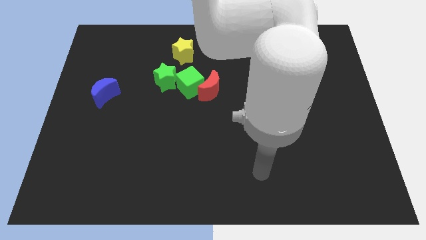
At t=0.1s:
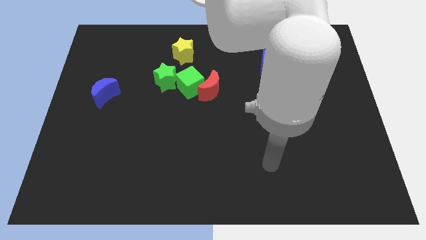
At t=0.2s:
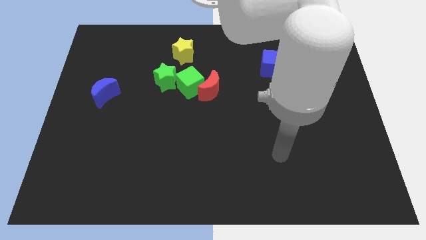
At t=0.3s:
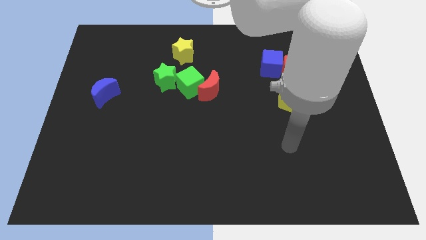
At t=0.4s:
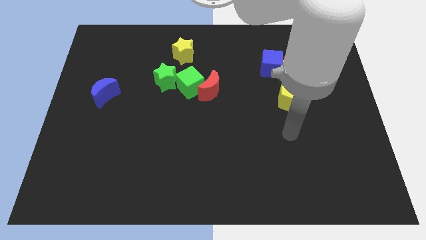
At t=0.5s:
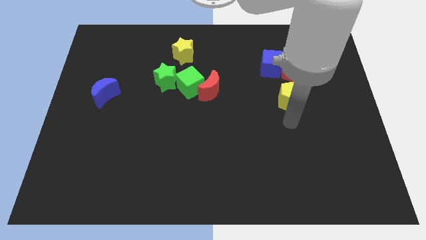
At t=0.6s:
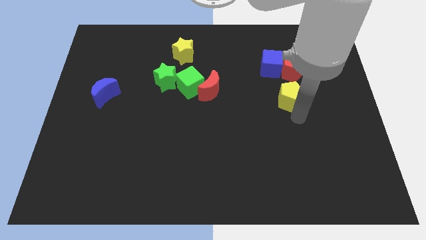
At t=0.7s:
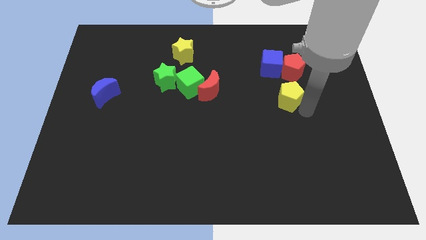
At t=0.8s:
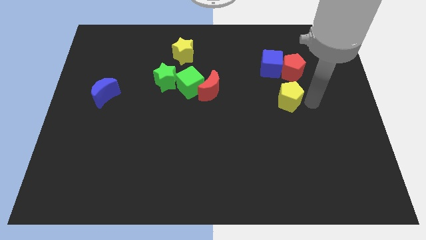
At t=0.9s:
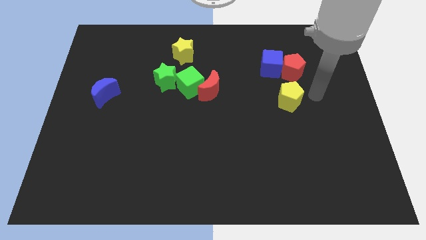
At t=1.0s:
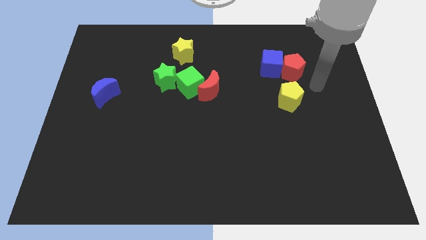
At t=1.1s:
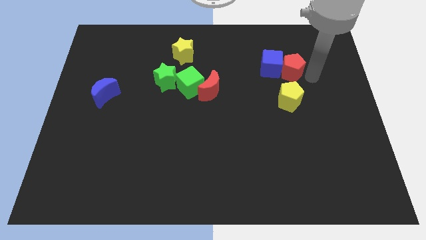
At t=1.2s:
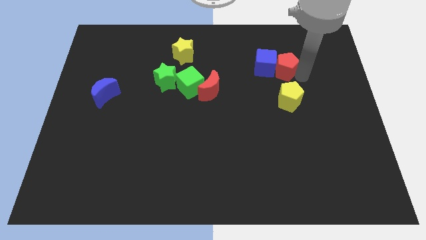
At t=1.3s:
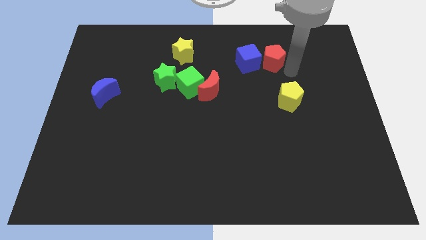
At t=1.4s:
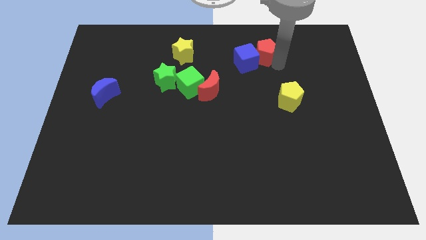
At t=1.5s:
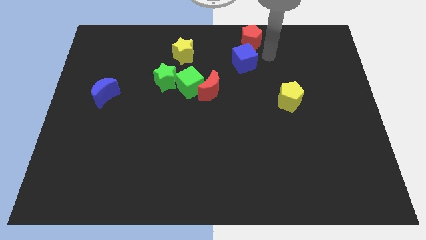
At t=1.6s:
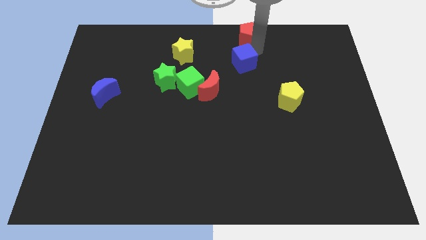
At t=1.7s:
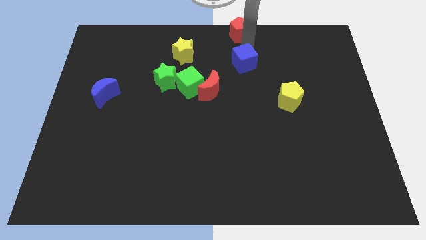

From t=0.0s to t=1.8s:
separate the blue cube from the red pentagon

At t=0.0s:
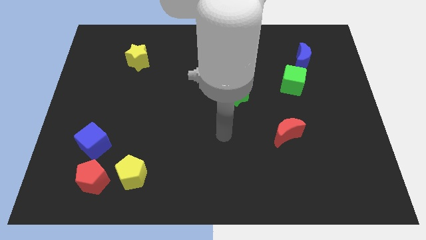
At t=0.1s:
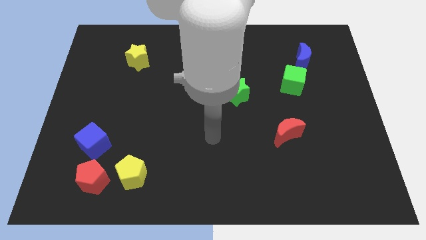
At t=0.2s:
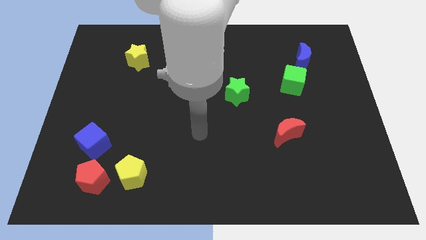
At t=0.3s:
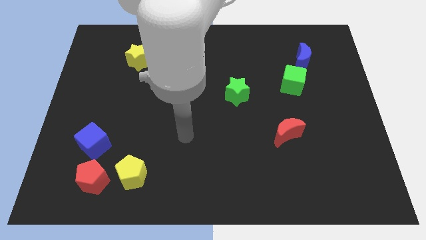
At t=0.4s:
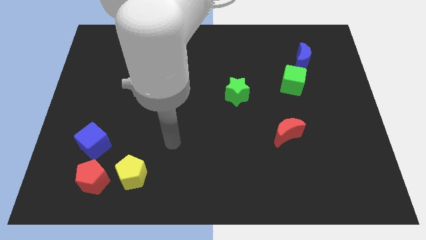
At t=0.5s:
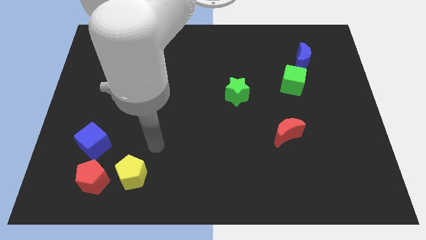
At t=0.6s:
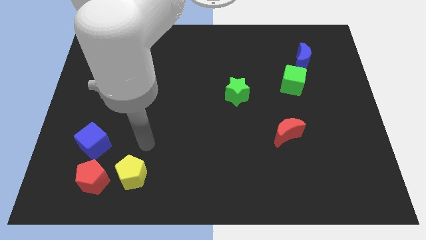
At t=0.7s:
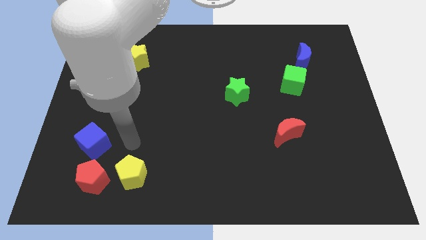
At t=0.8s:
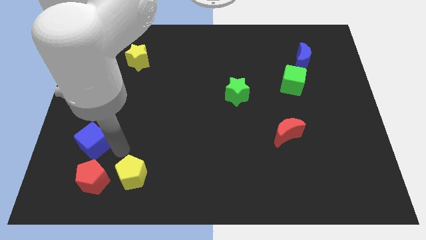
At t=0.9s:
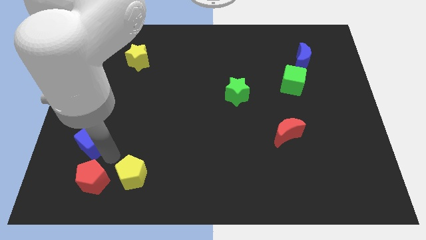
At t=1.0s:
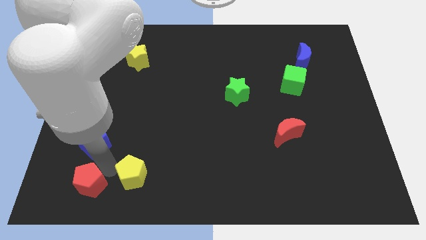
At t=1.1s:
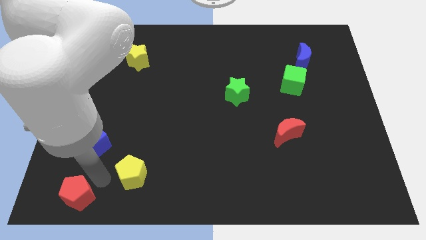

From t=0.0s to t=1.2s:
pull the yellow pentagon apart from the red pentagon

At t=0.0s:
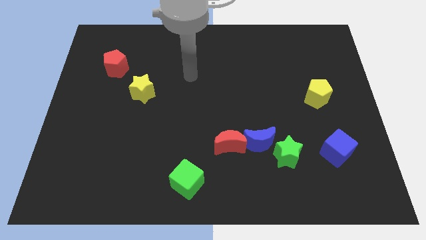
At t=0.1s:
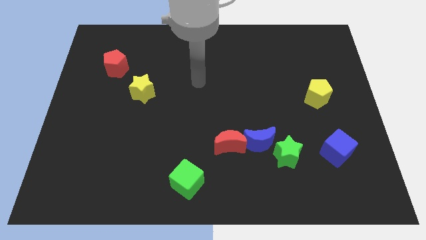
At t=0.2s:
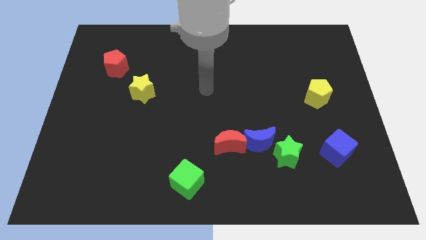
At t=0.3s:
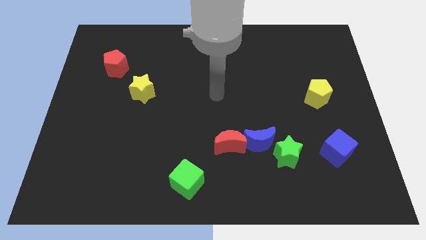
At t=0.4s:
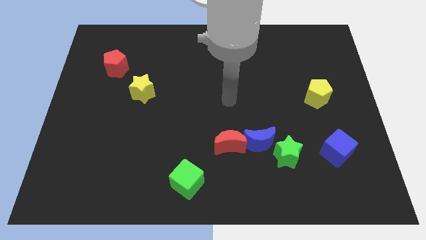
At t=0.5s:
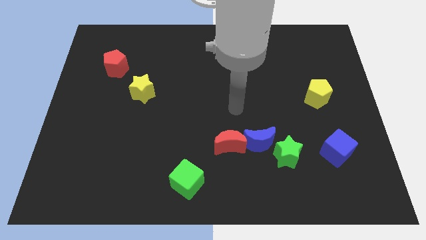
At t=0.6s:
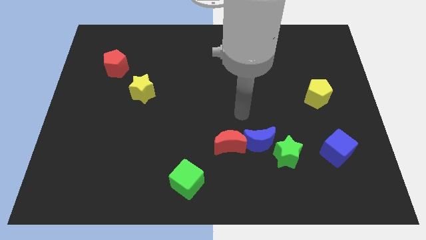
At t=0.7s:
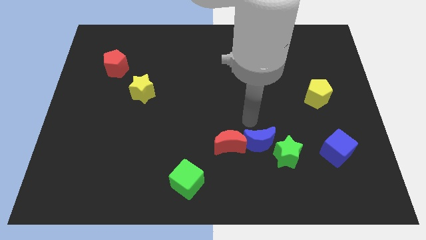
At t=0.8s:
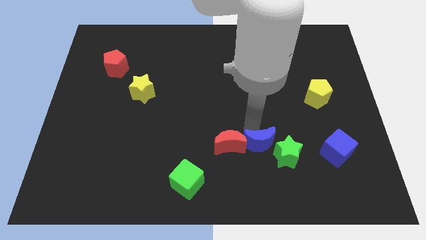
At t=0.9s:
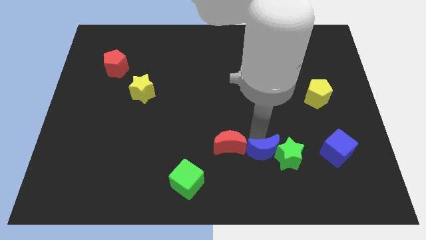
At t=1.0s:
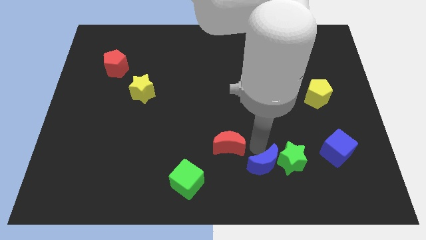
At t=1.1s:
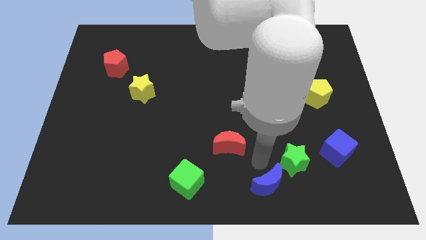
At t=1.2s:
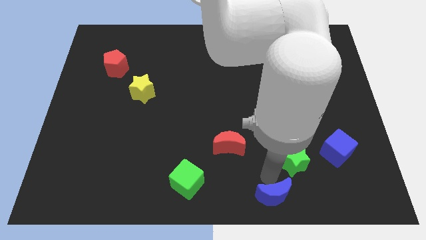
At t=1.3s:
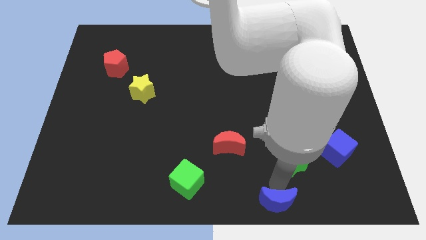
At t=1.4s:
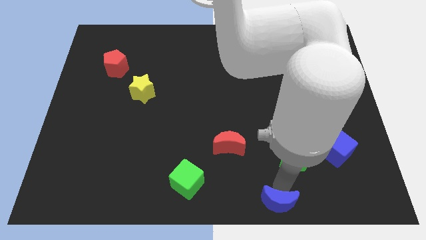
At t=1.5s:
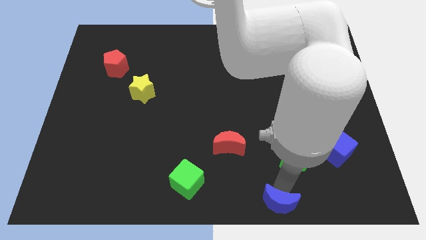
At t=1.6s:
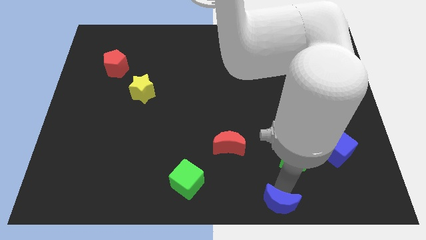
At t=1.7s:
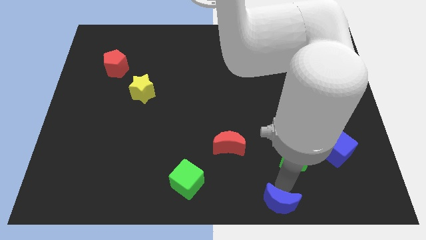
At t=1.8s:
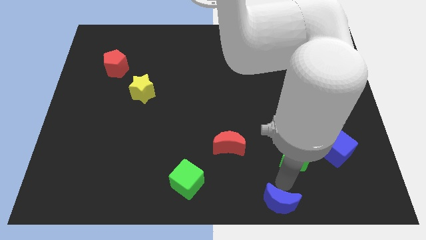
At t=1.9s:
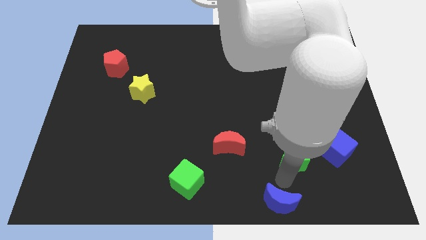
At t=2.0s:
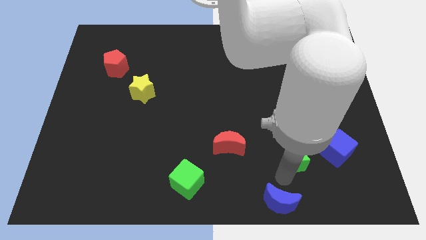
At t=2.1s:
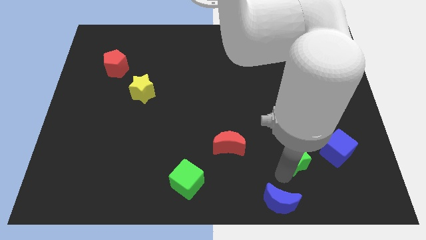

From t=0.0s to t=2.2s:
move the green star away from the blue moon

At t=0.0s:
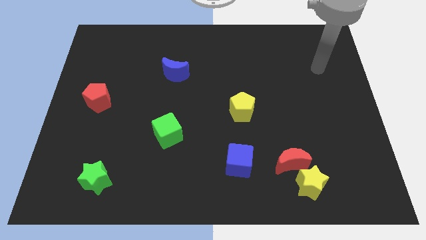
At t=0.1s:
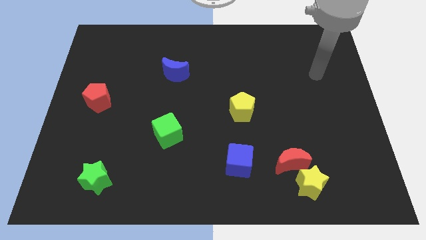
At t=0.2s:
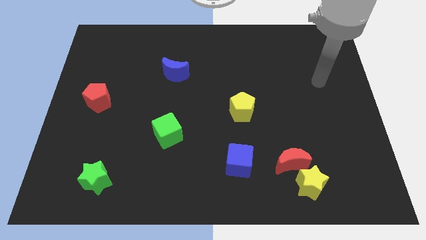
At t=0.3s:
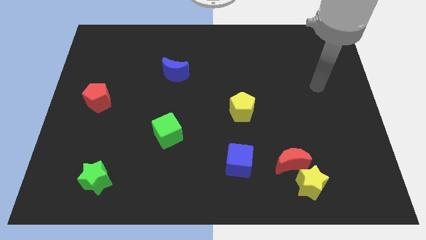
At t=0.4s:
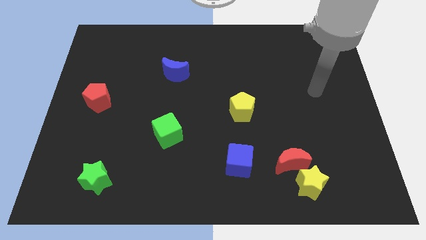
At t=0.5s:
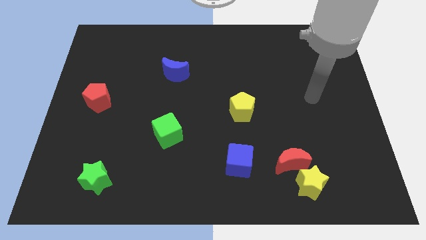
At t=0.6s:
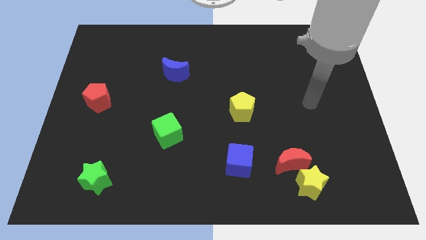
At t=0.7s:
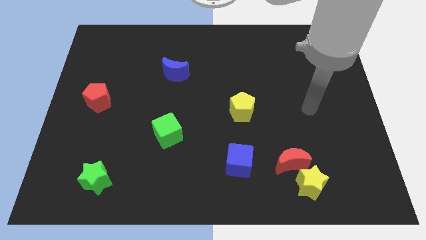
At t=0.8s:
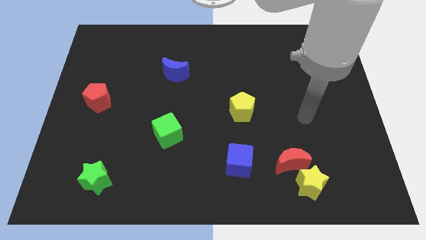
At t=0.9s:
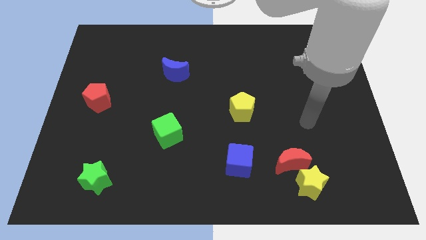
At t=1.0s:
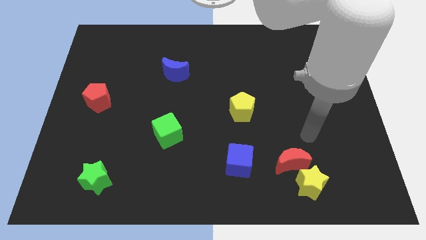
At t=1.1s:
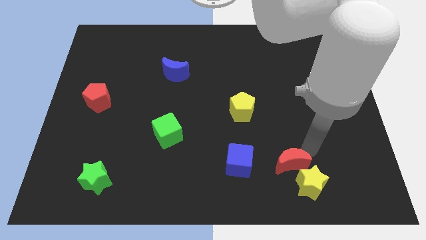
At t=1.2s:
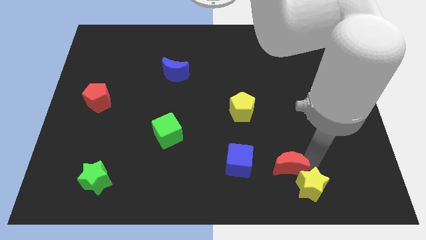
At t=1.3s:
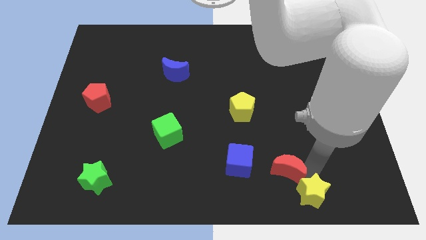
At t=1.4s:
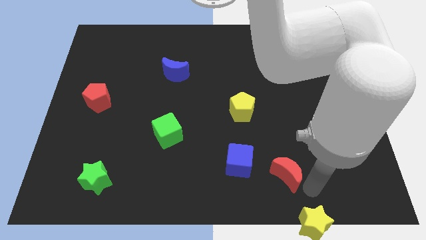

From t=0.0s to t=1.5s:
move the red moon away from the yellow star

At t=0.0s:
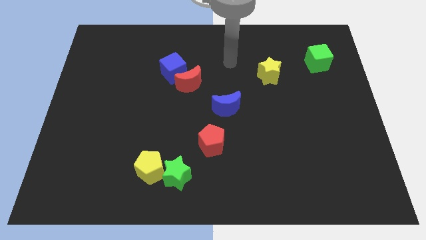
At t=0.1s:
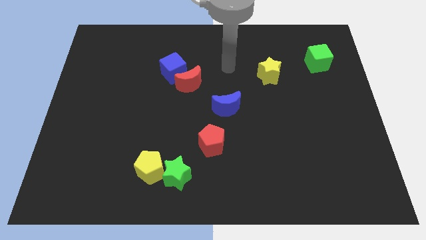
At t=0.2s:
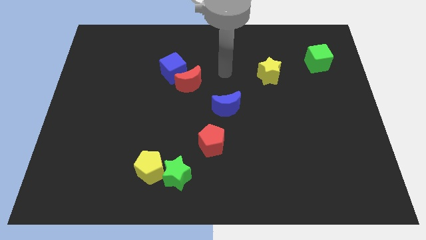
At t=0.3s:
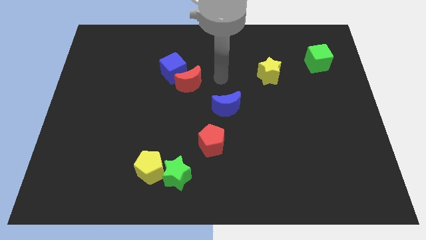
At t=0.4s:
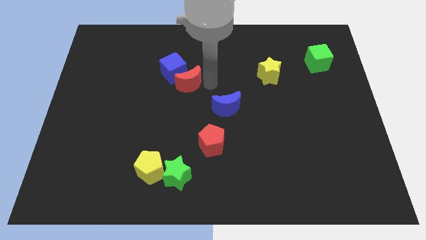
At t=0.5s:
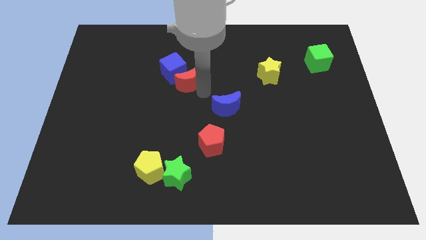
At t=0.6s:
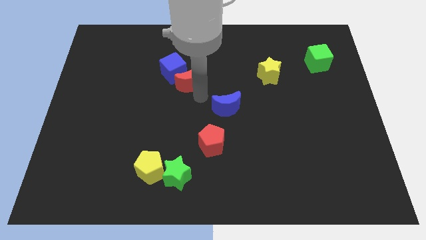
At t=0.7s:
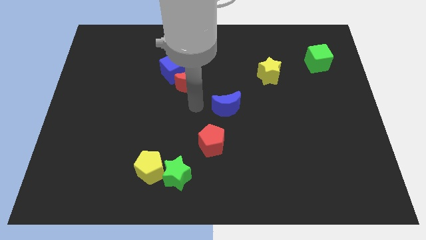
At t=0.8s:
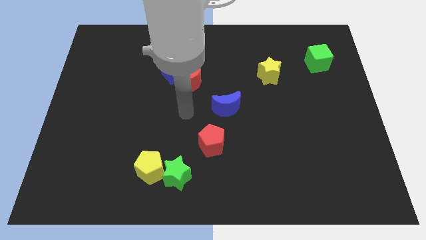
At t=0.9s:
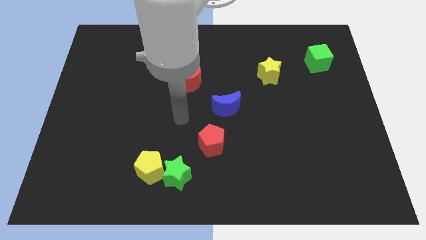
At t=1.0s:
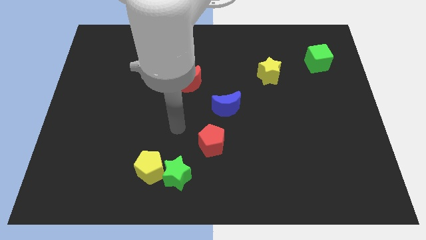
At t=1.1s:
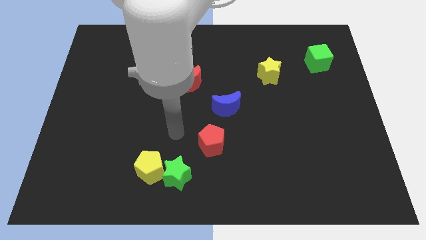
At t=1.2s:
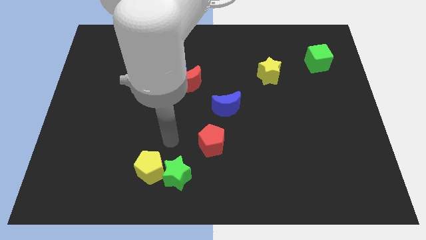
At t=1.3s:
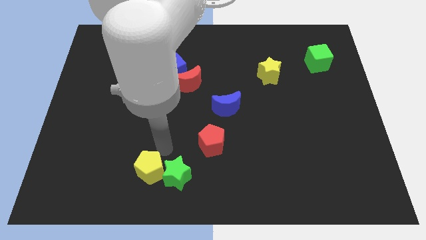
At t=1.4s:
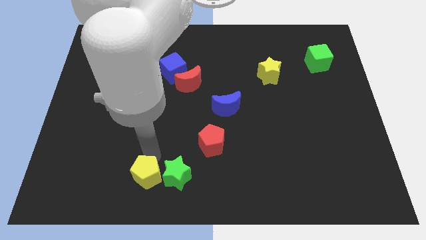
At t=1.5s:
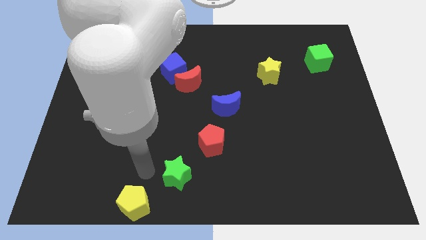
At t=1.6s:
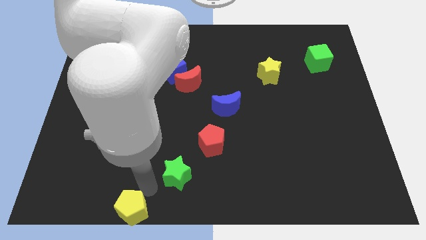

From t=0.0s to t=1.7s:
move the green star away from the yellow pentagon

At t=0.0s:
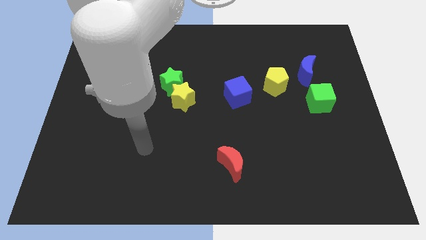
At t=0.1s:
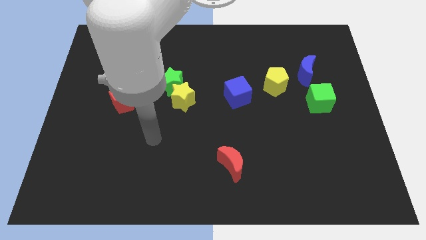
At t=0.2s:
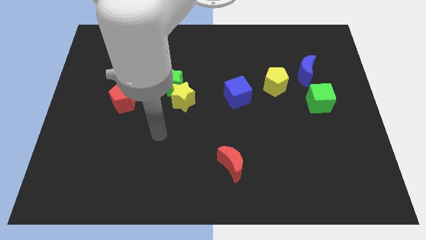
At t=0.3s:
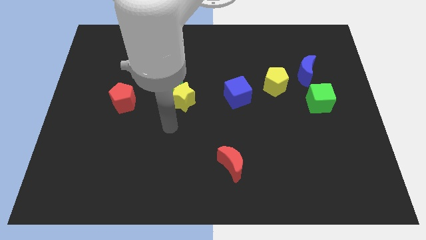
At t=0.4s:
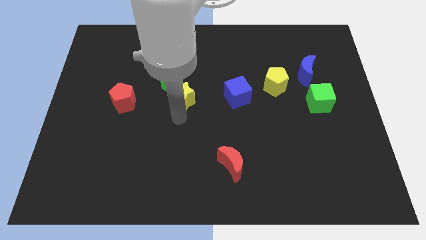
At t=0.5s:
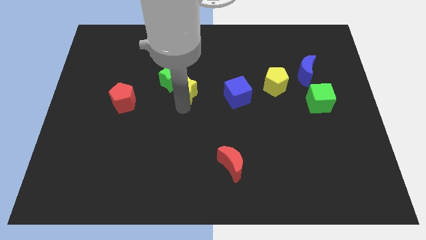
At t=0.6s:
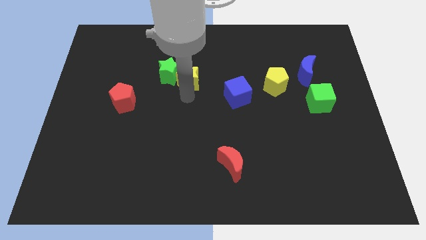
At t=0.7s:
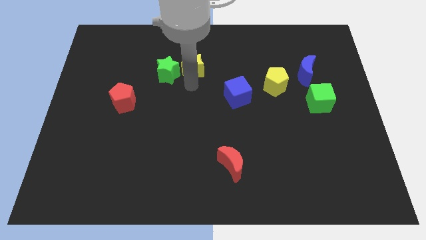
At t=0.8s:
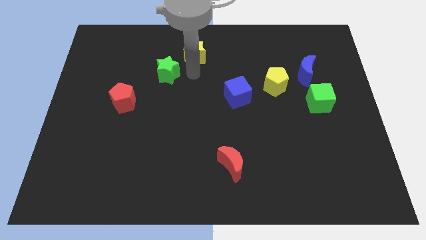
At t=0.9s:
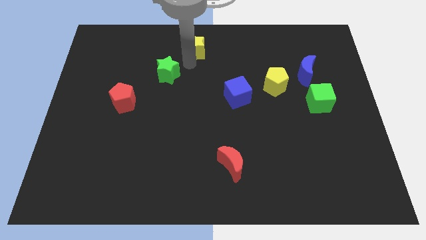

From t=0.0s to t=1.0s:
separate the green star from the yellow star
